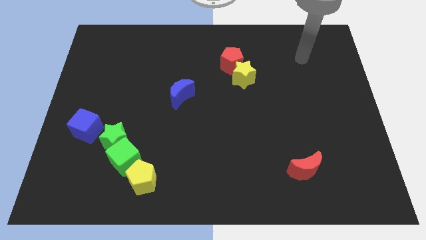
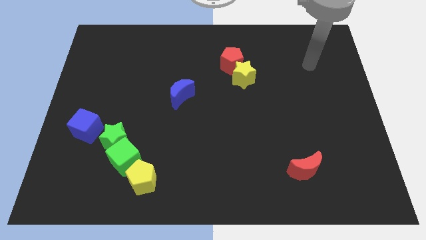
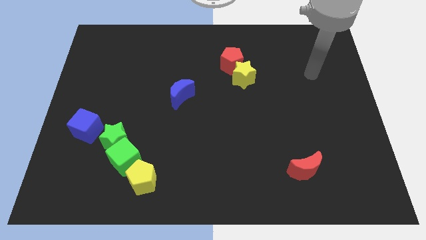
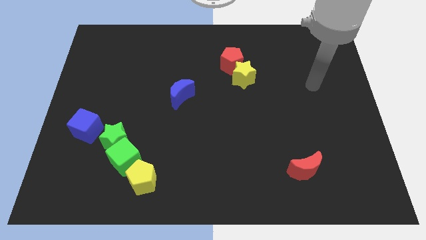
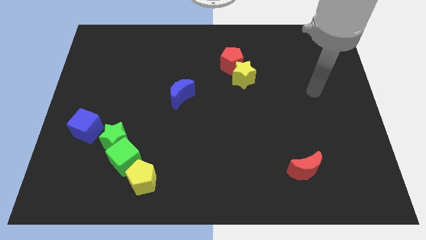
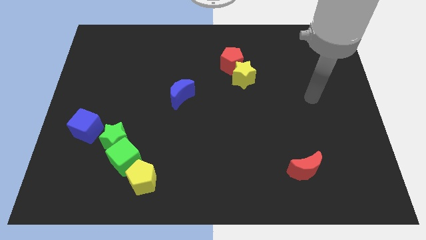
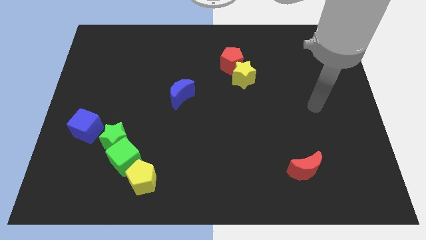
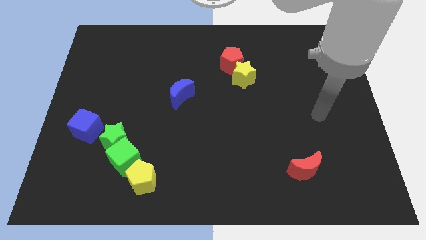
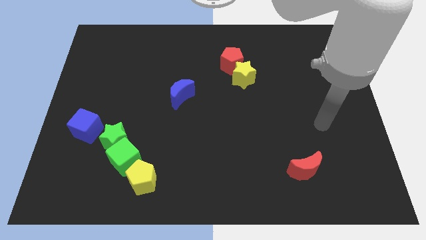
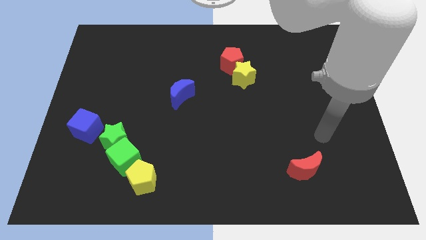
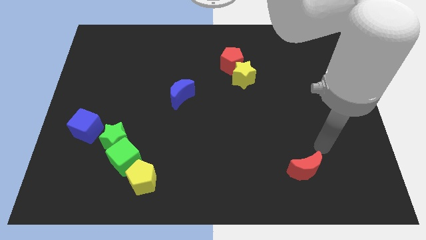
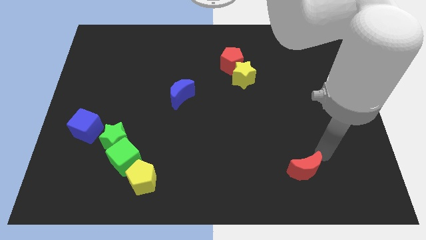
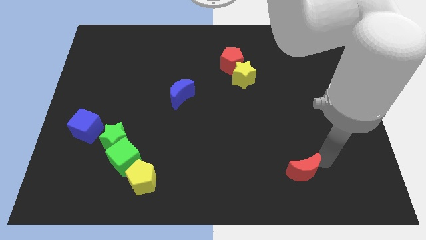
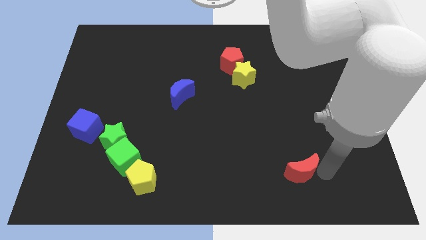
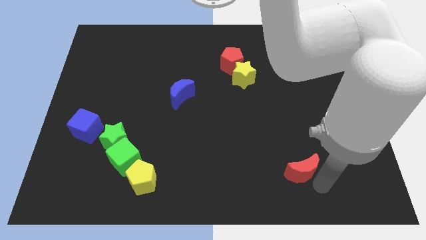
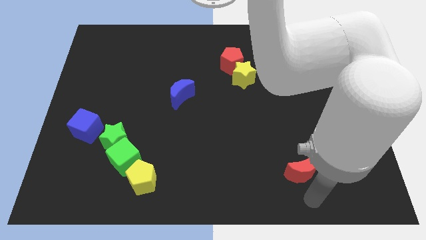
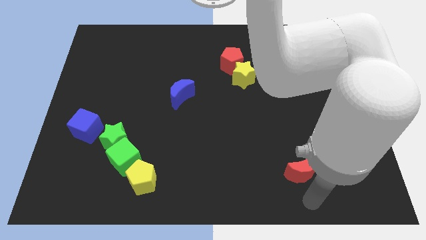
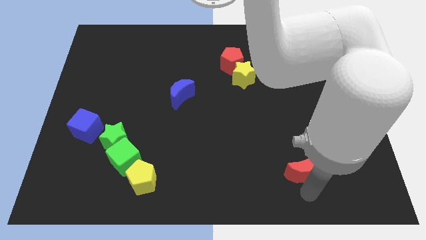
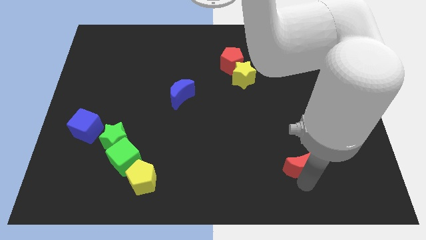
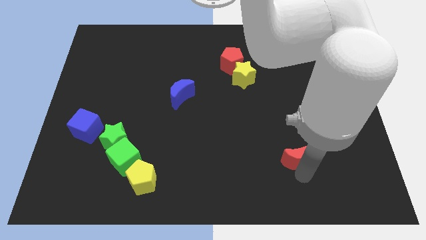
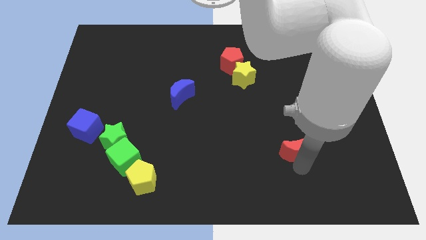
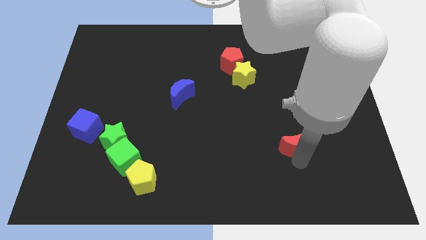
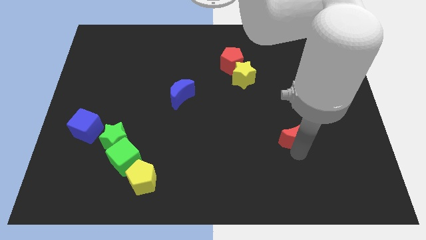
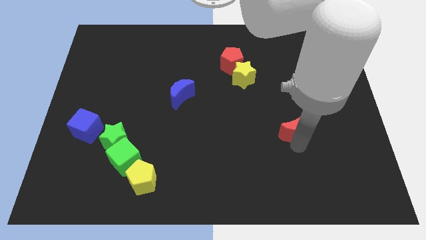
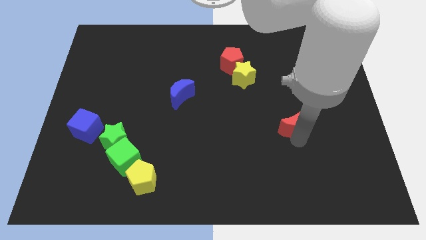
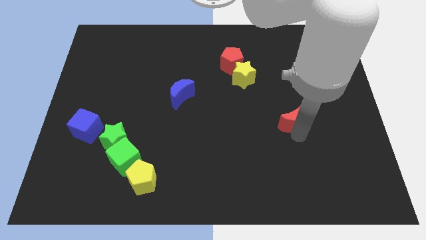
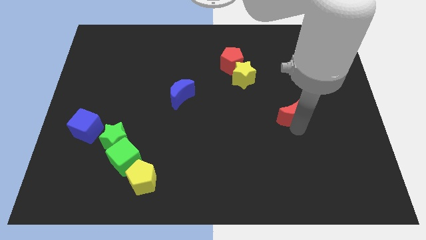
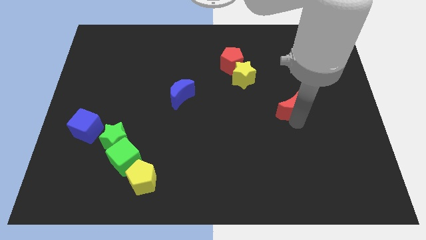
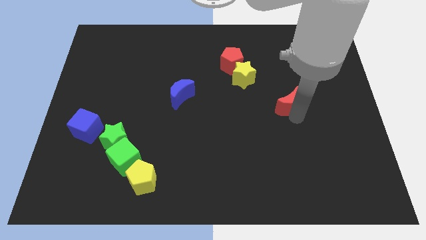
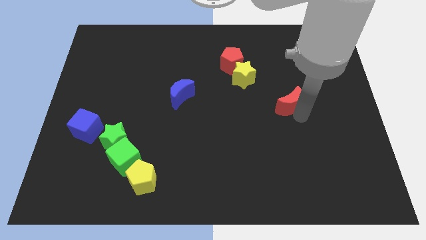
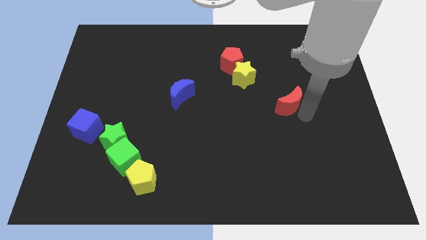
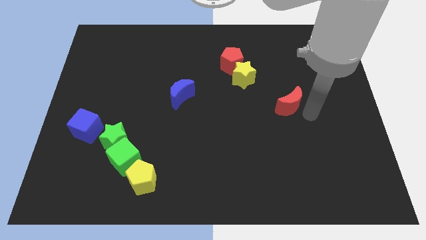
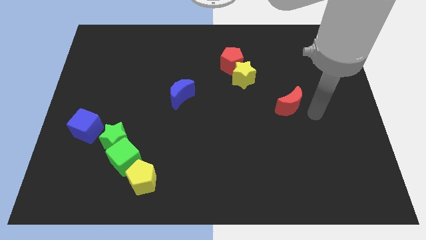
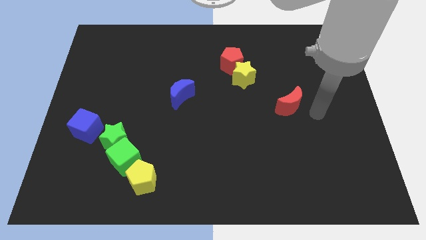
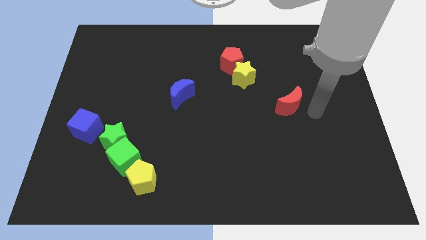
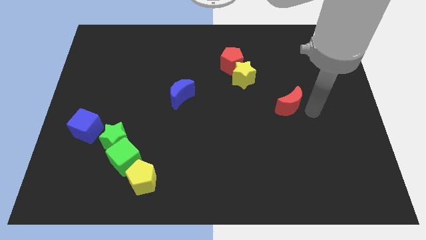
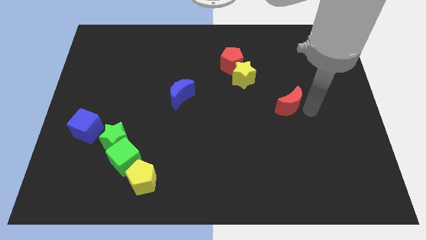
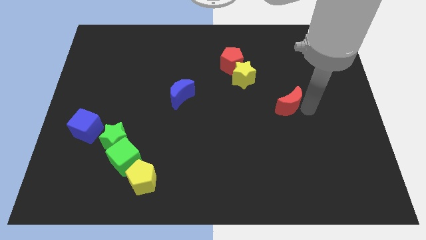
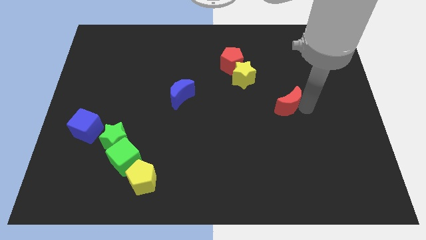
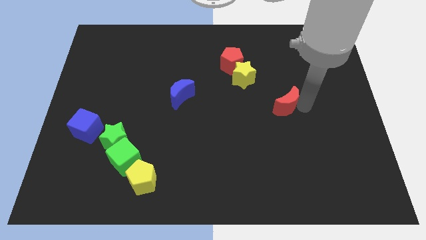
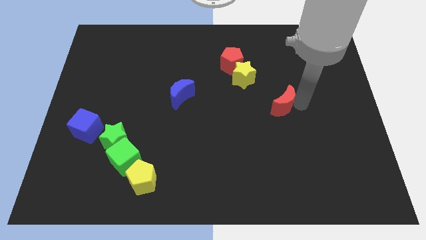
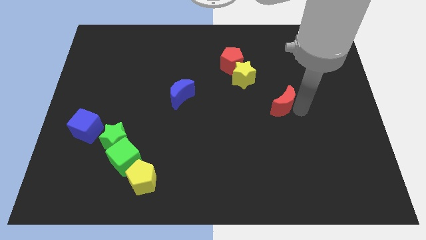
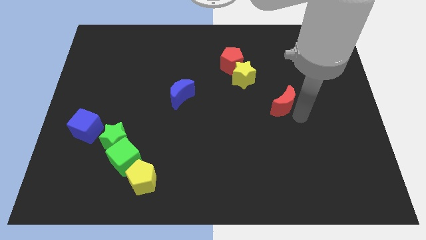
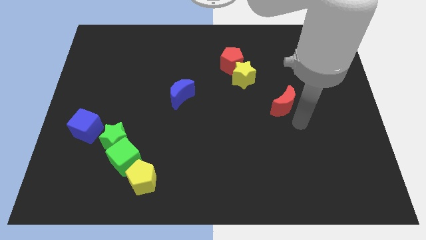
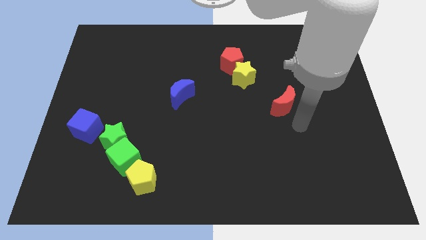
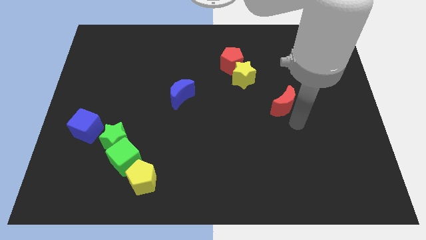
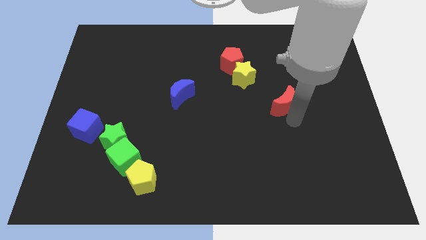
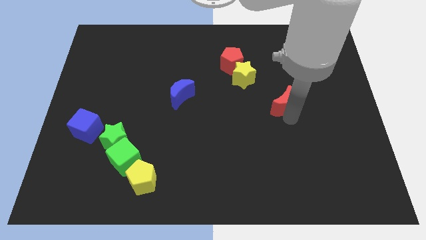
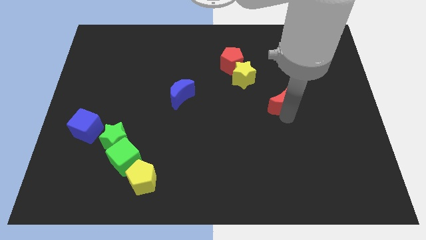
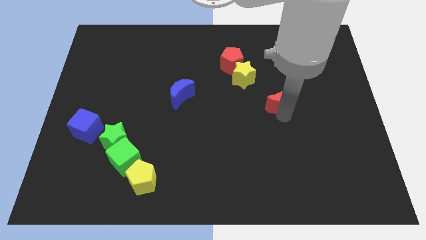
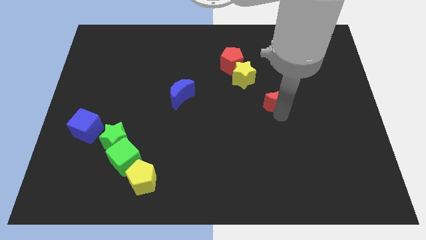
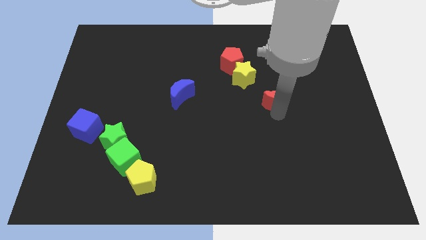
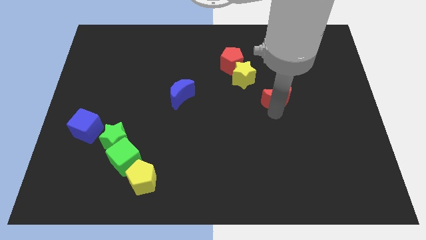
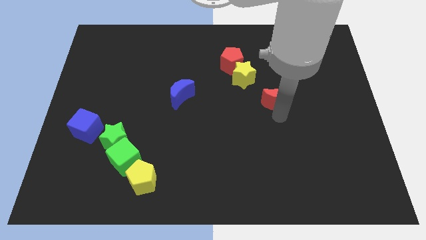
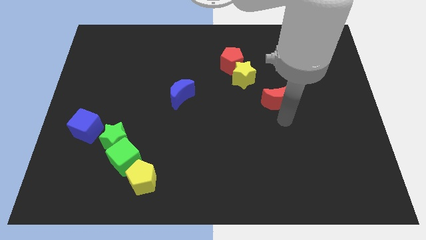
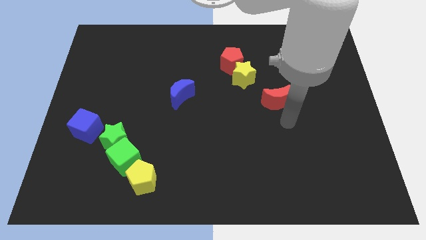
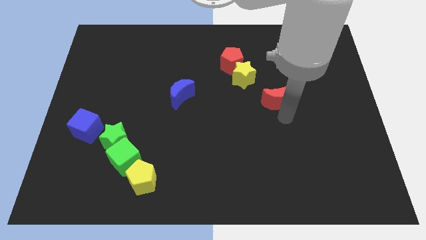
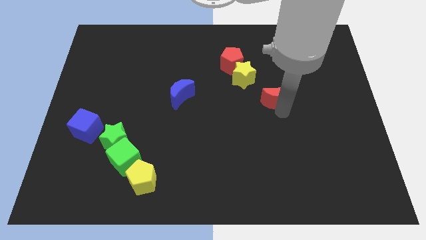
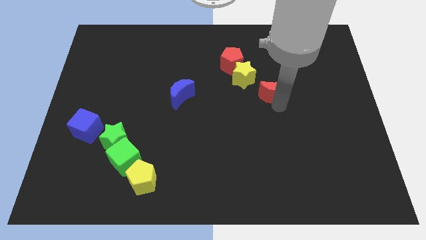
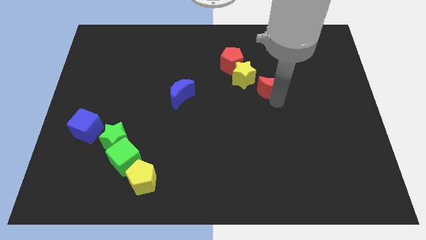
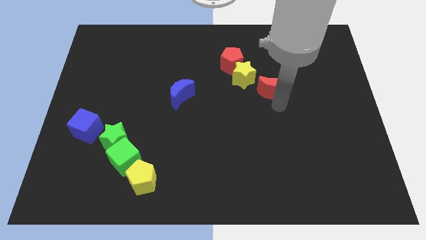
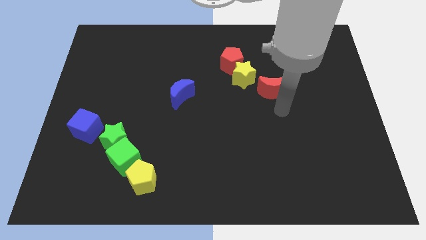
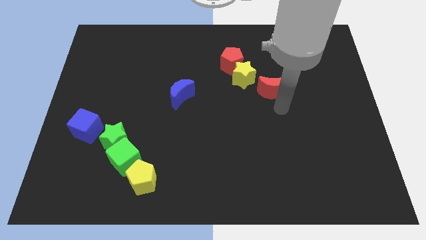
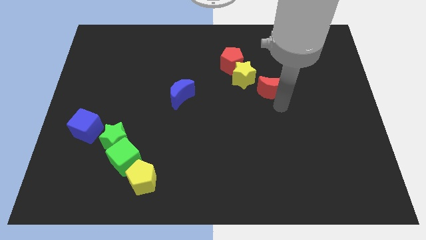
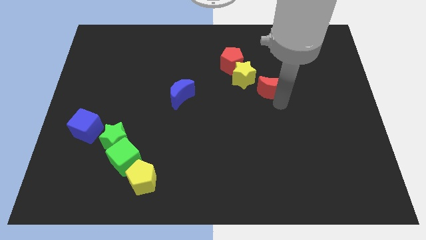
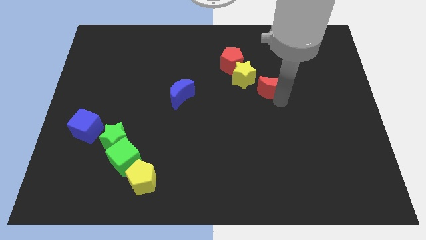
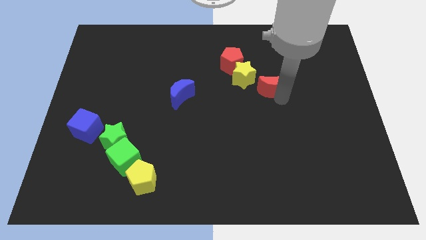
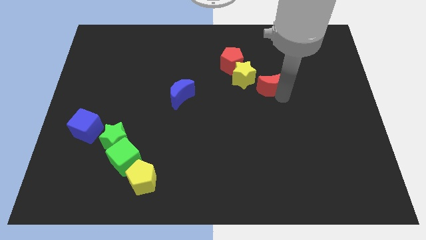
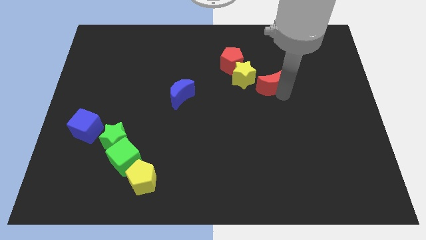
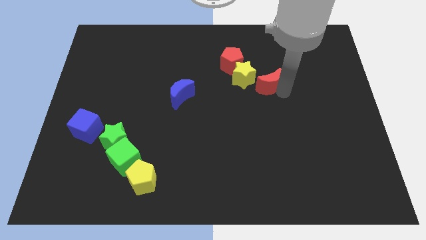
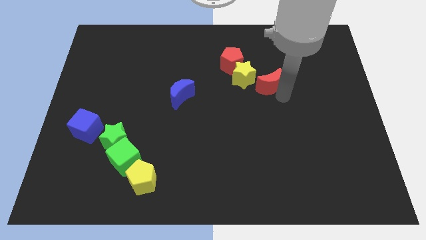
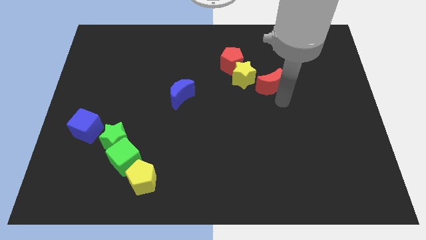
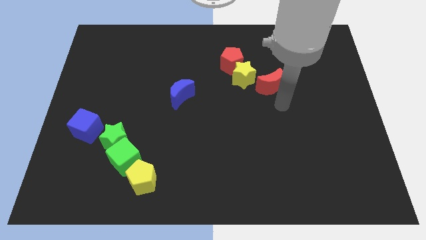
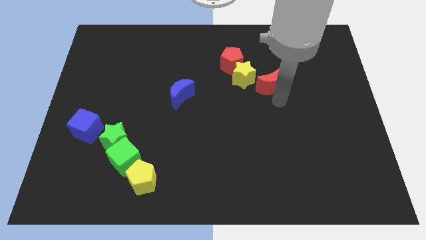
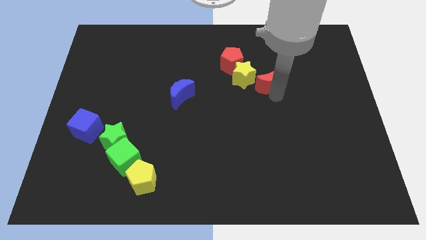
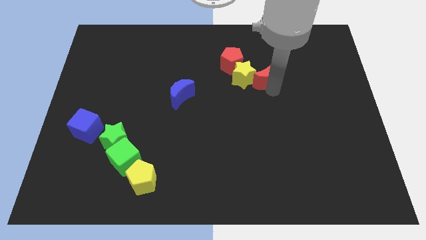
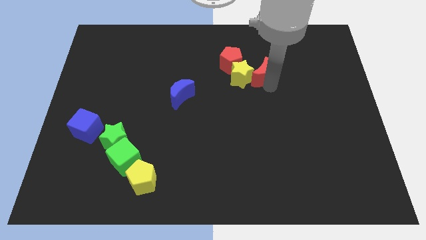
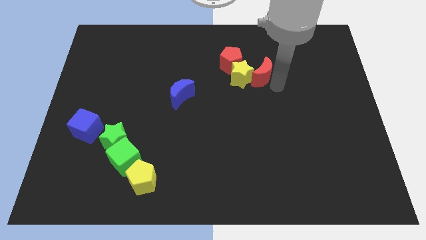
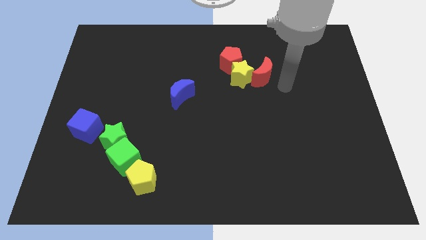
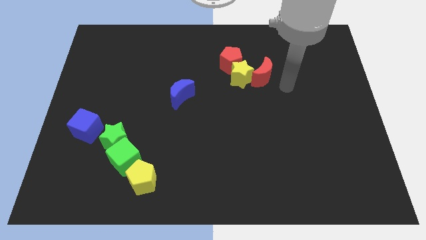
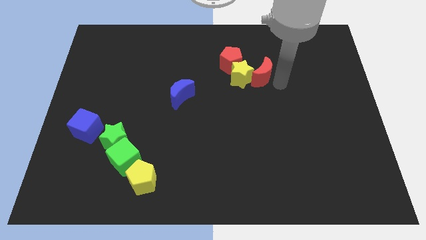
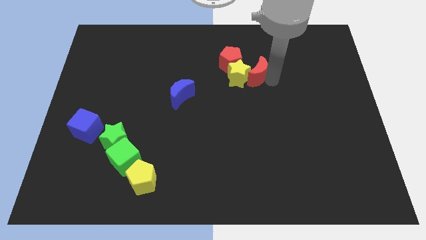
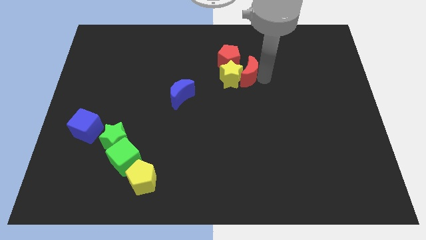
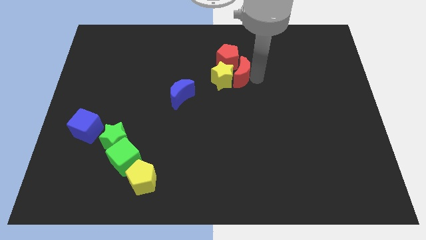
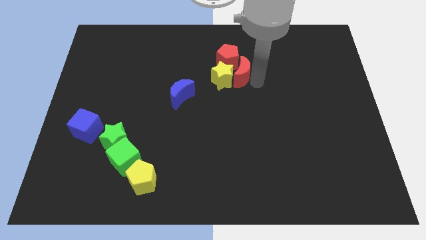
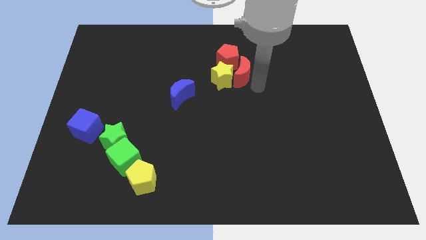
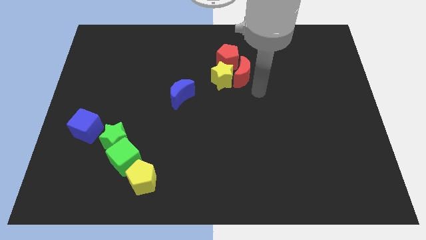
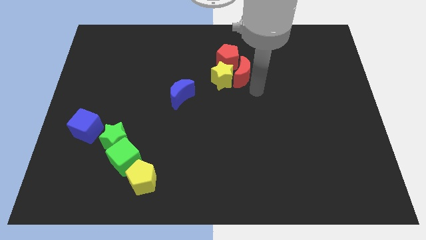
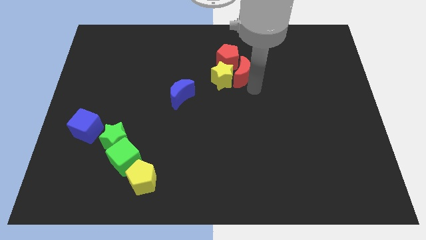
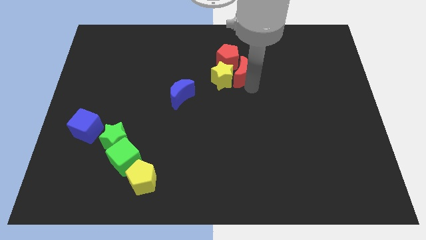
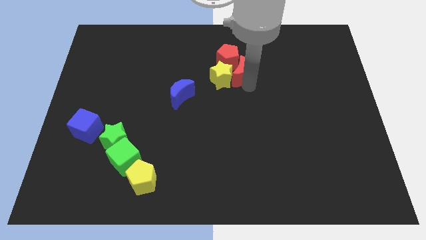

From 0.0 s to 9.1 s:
move the red moon close to the red pentagon
